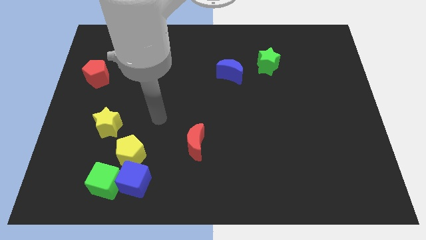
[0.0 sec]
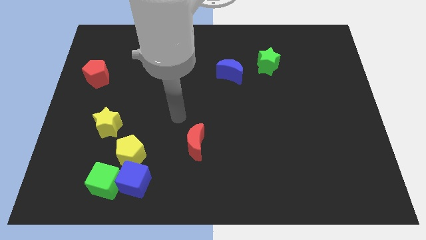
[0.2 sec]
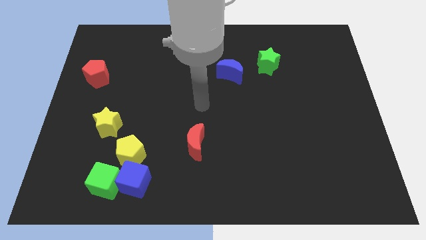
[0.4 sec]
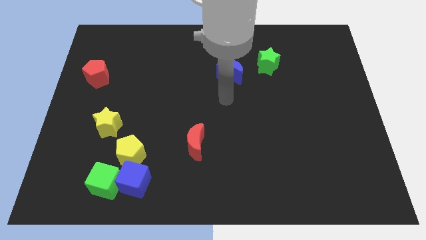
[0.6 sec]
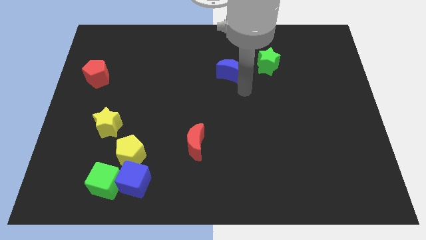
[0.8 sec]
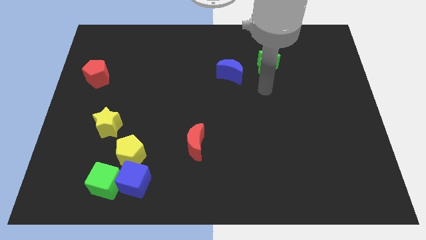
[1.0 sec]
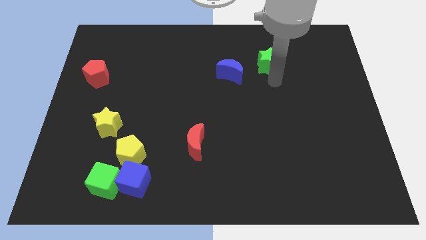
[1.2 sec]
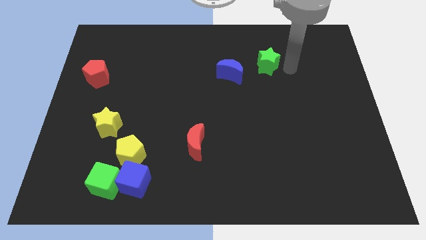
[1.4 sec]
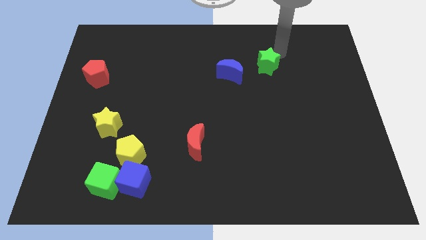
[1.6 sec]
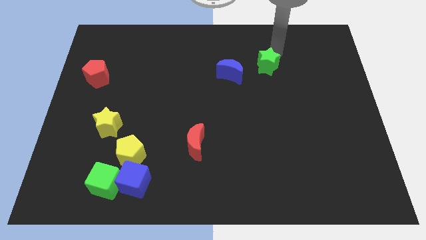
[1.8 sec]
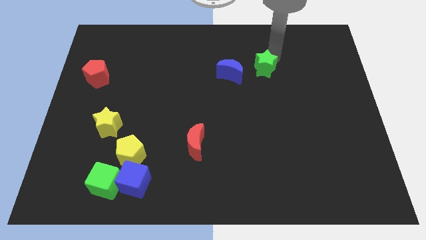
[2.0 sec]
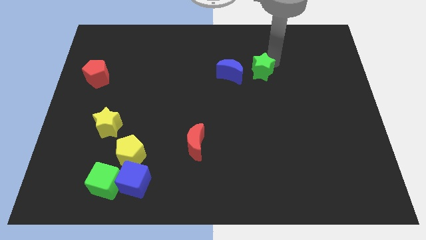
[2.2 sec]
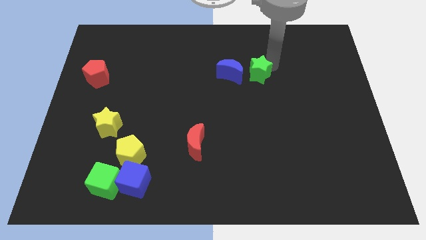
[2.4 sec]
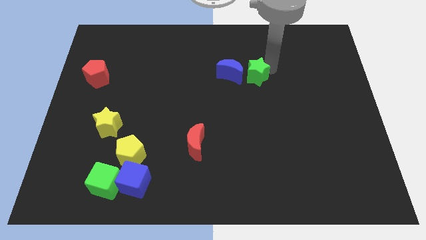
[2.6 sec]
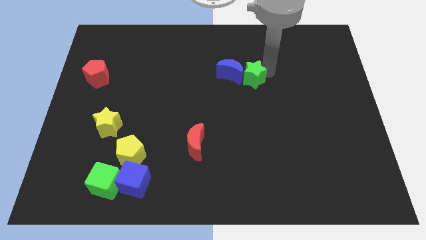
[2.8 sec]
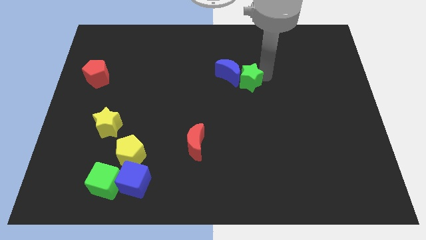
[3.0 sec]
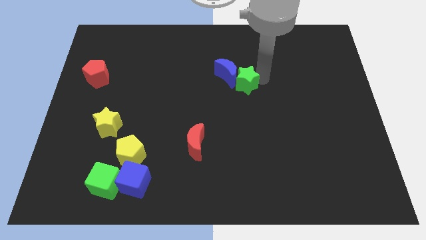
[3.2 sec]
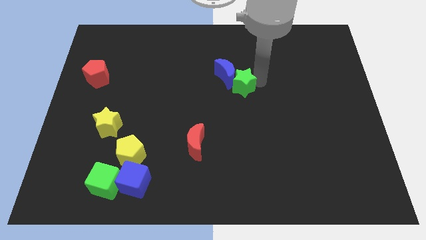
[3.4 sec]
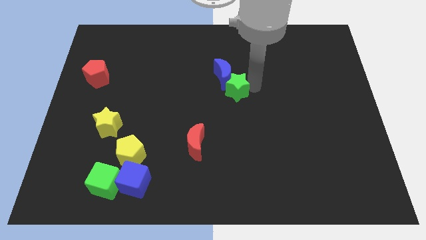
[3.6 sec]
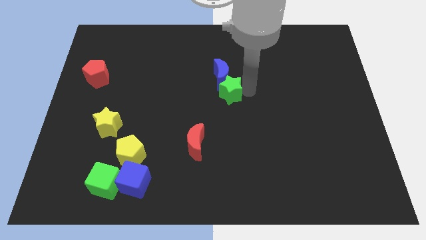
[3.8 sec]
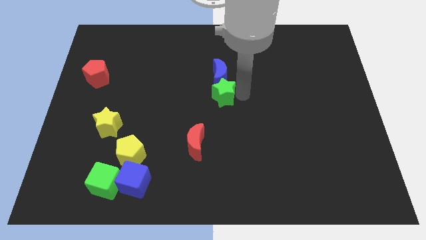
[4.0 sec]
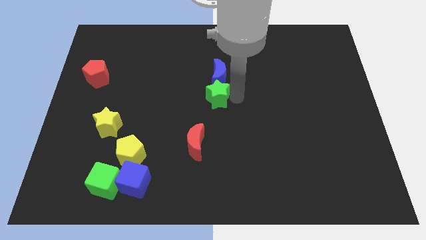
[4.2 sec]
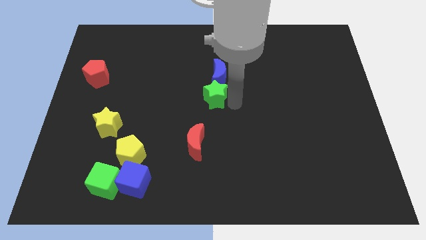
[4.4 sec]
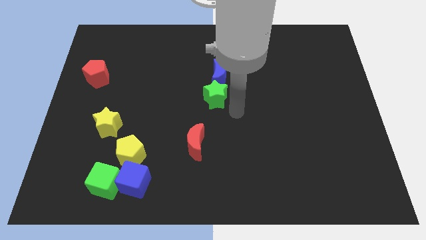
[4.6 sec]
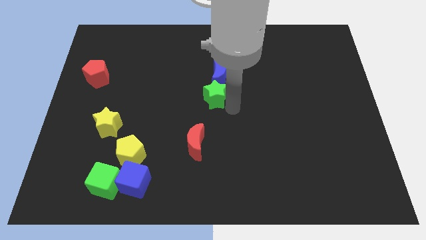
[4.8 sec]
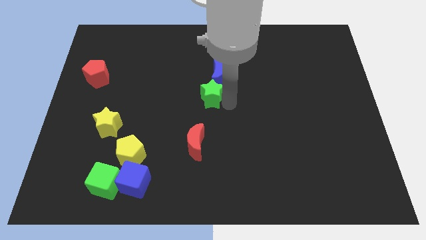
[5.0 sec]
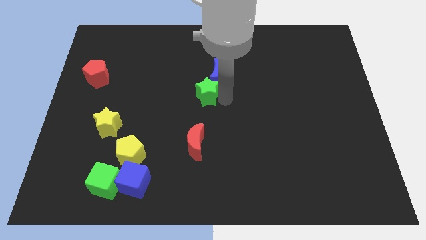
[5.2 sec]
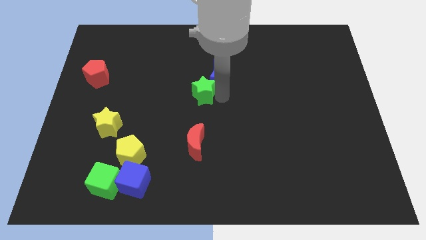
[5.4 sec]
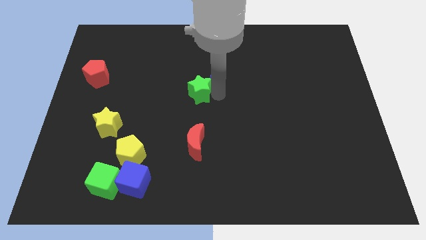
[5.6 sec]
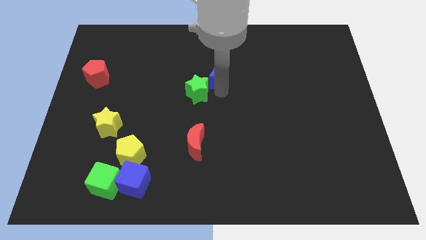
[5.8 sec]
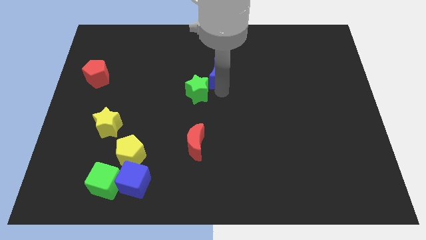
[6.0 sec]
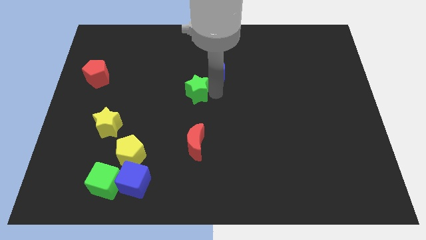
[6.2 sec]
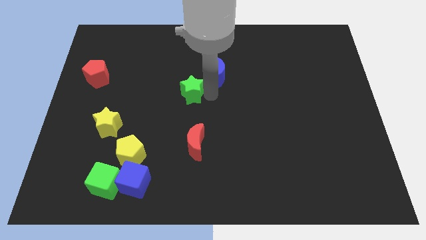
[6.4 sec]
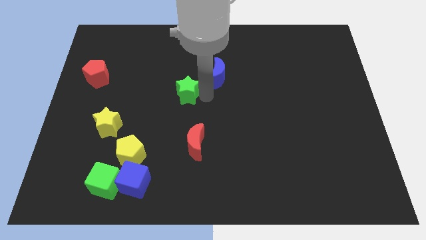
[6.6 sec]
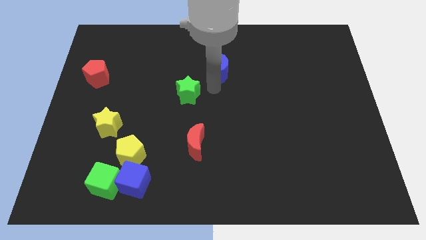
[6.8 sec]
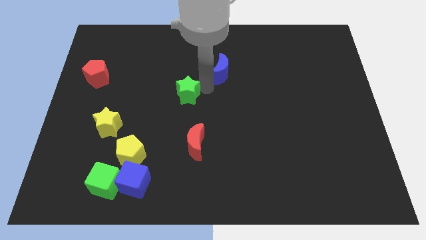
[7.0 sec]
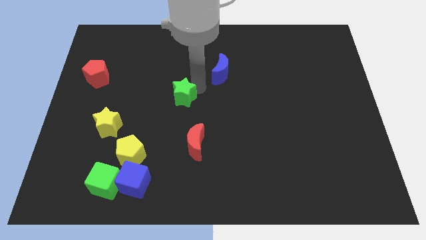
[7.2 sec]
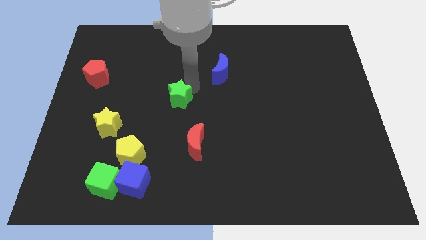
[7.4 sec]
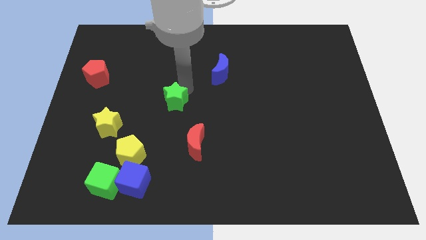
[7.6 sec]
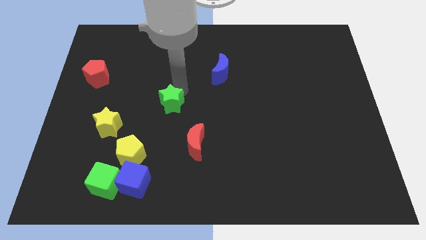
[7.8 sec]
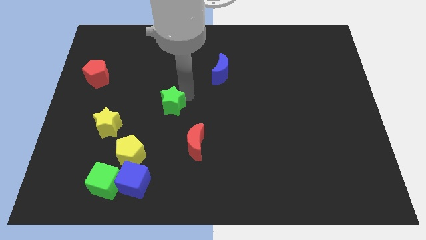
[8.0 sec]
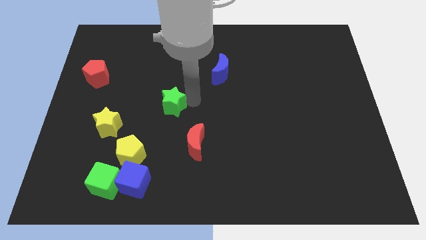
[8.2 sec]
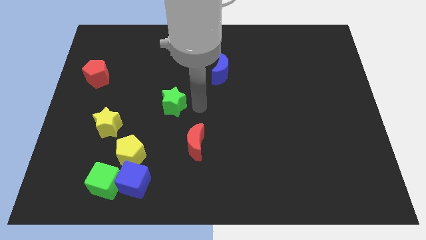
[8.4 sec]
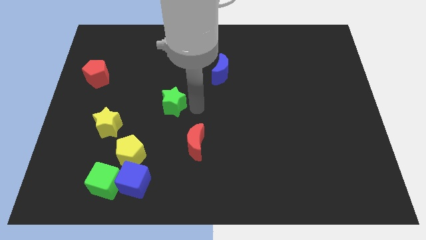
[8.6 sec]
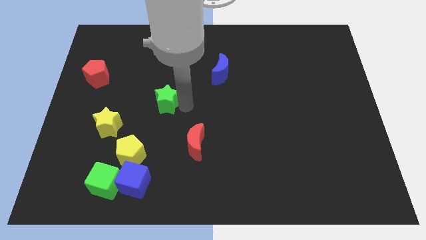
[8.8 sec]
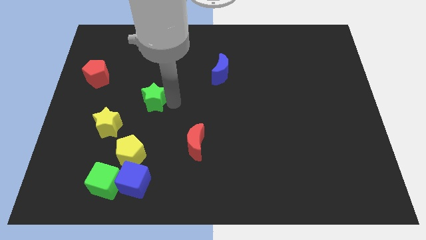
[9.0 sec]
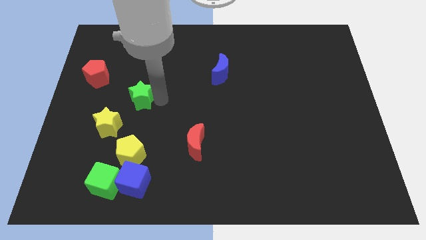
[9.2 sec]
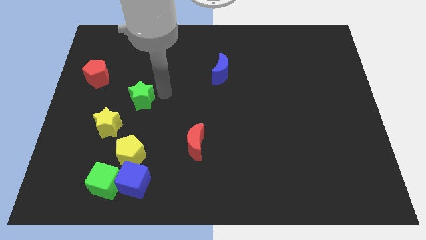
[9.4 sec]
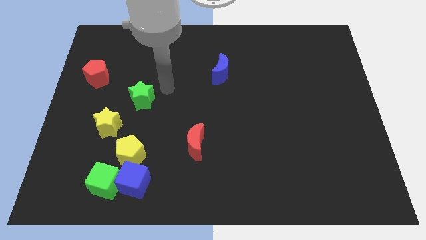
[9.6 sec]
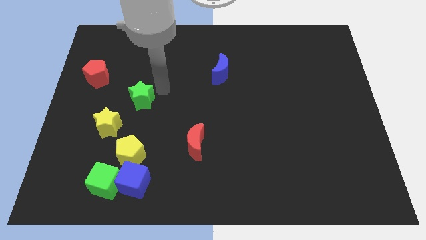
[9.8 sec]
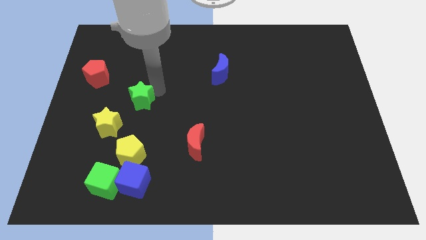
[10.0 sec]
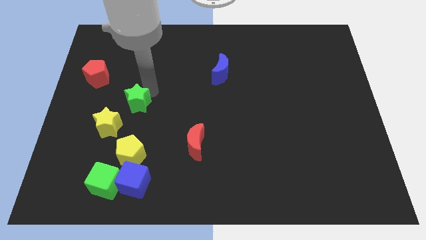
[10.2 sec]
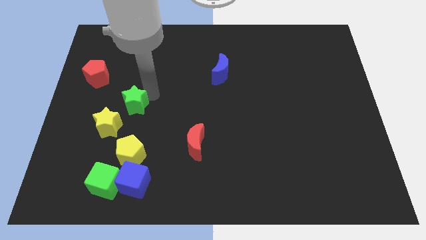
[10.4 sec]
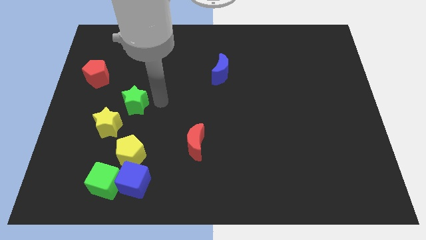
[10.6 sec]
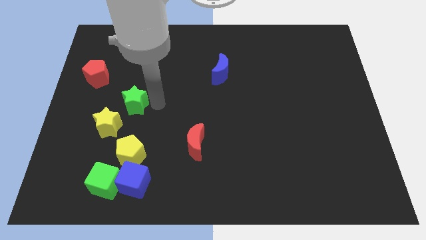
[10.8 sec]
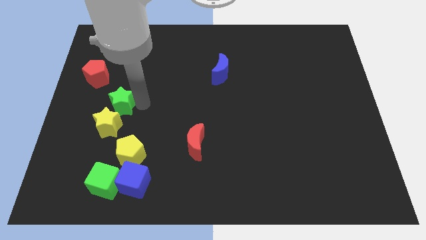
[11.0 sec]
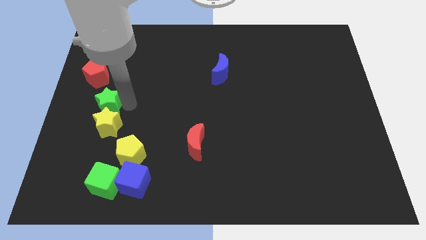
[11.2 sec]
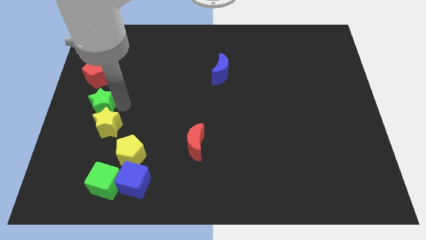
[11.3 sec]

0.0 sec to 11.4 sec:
slide the green star to the left side of the board

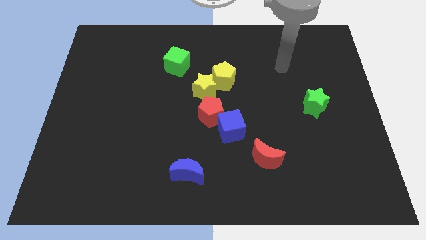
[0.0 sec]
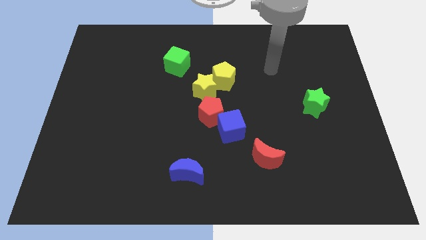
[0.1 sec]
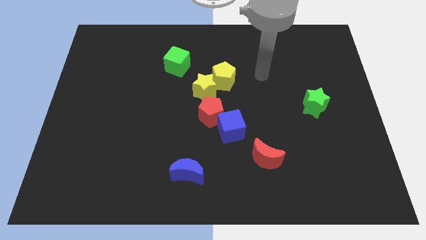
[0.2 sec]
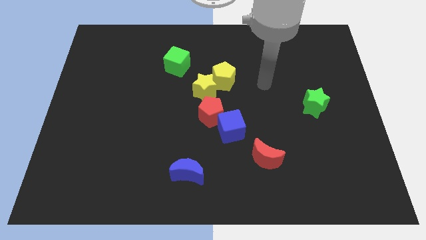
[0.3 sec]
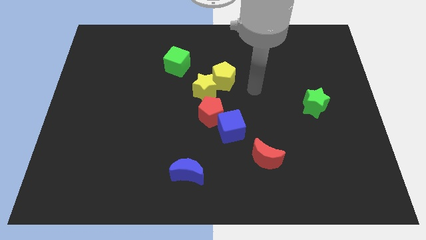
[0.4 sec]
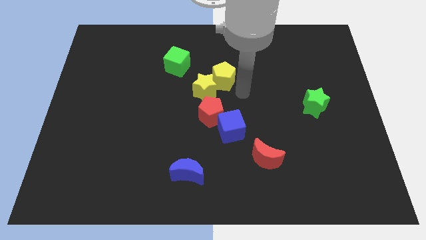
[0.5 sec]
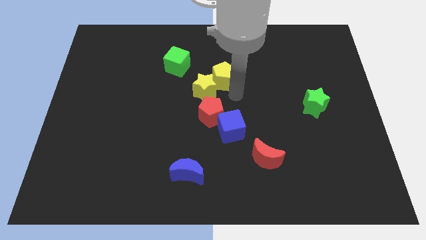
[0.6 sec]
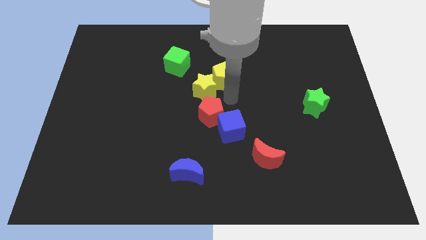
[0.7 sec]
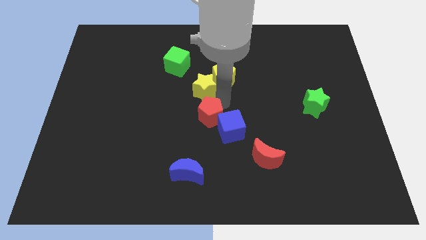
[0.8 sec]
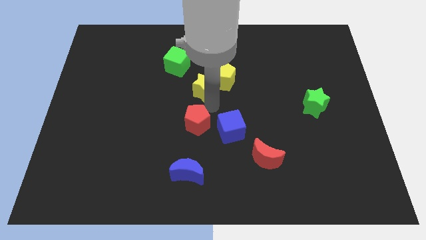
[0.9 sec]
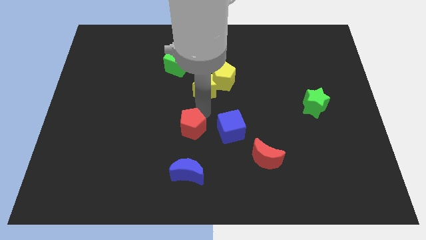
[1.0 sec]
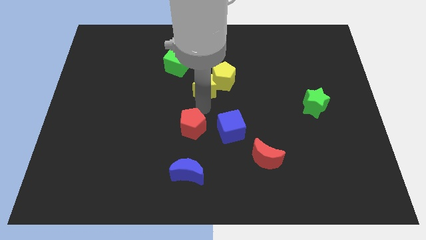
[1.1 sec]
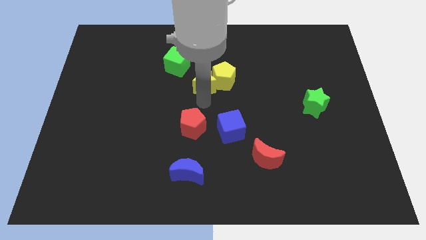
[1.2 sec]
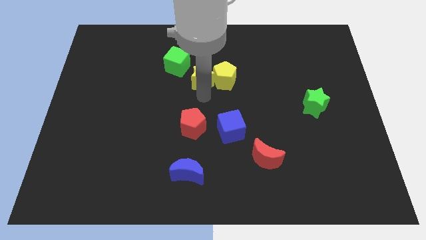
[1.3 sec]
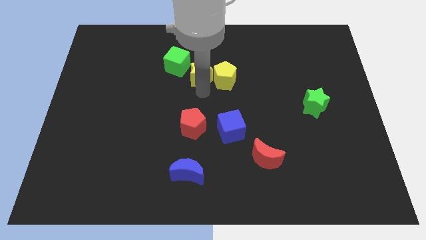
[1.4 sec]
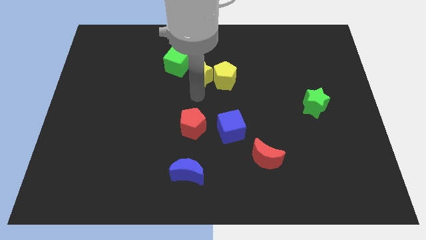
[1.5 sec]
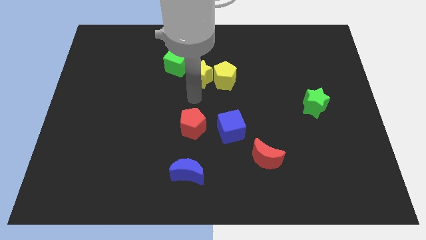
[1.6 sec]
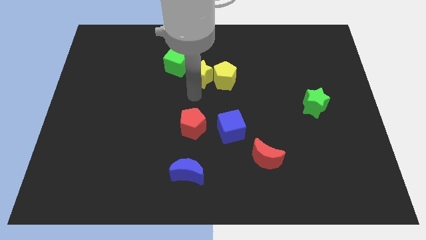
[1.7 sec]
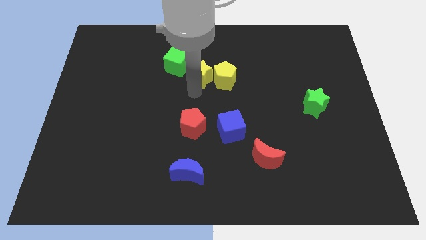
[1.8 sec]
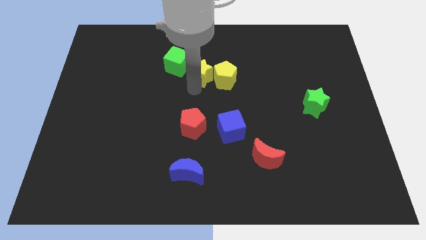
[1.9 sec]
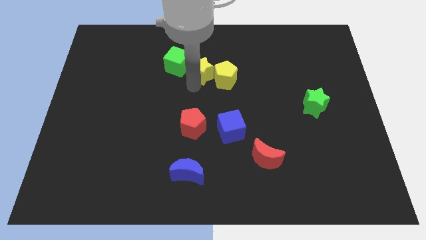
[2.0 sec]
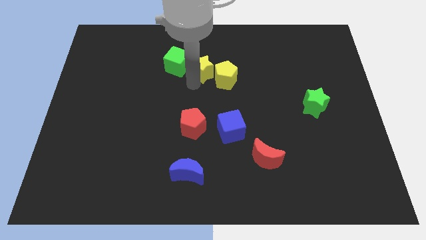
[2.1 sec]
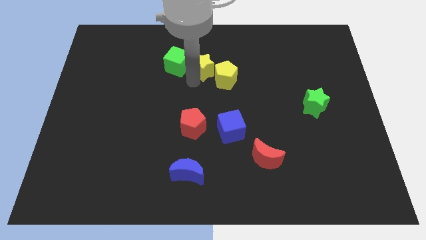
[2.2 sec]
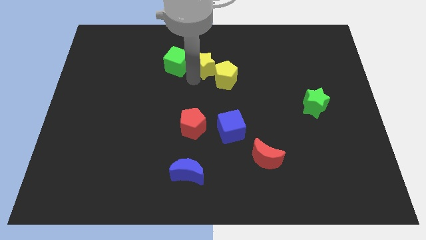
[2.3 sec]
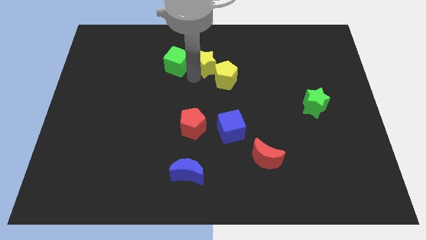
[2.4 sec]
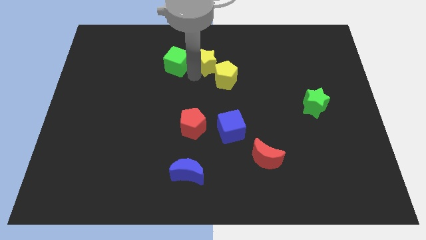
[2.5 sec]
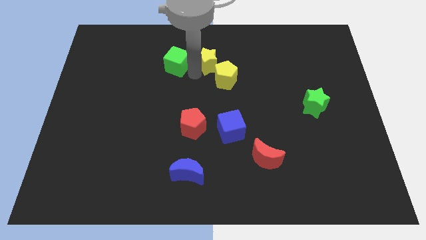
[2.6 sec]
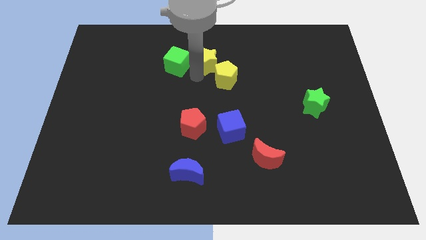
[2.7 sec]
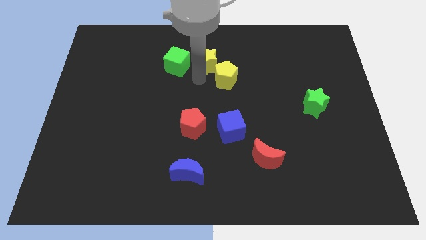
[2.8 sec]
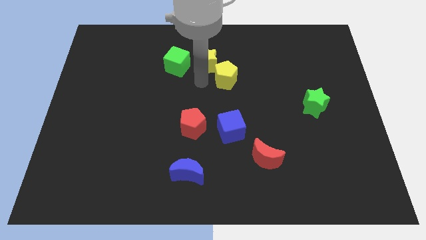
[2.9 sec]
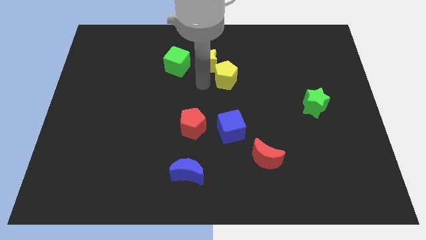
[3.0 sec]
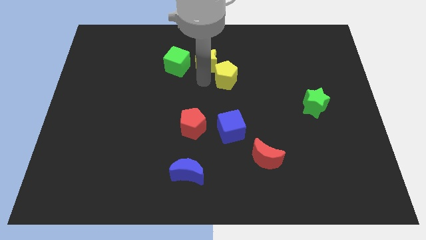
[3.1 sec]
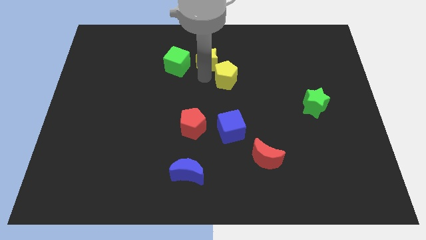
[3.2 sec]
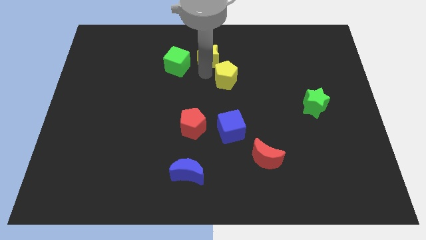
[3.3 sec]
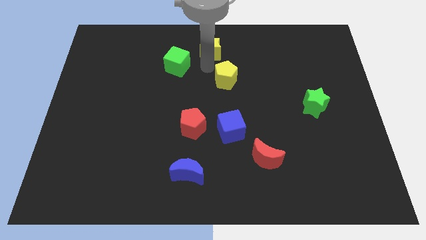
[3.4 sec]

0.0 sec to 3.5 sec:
push the yellow star to the towards your base
